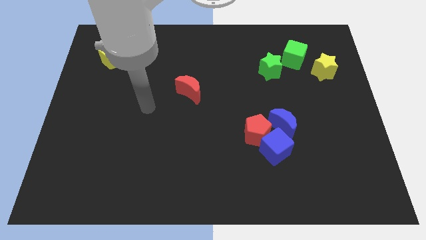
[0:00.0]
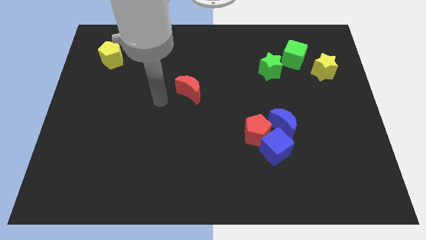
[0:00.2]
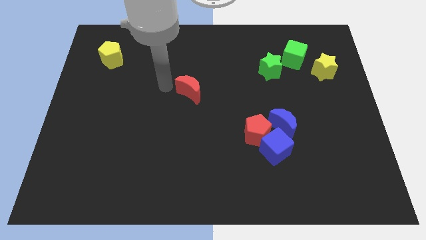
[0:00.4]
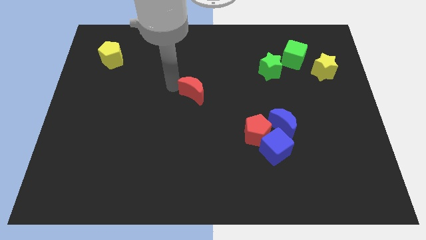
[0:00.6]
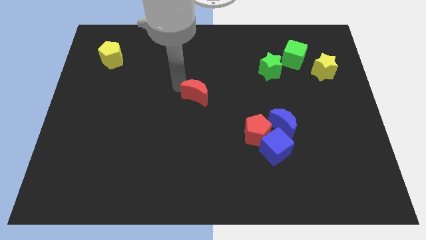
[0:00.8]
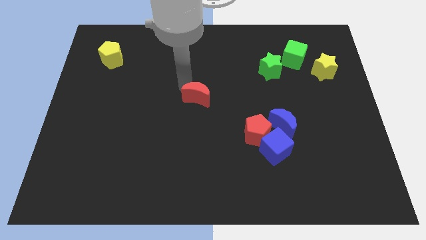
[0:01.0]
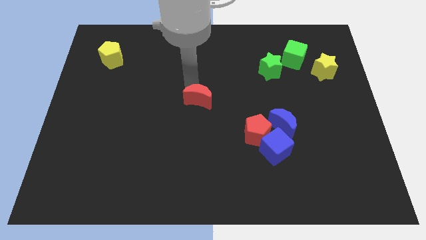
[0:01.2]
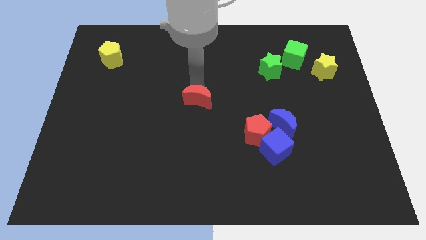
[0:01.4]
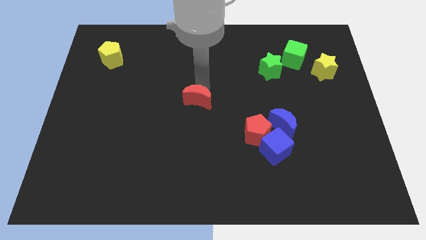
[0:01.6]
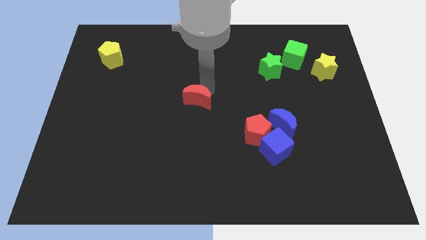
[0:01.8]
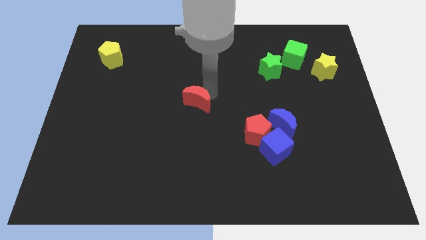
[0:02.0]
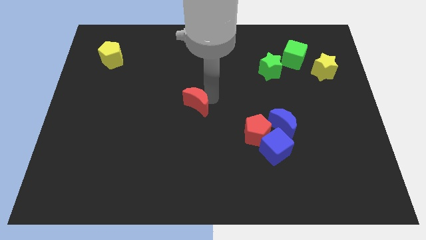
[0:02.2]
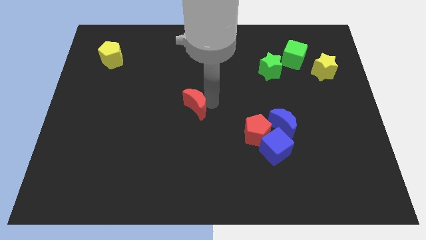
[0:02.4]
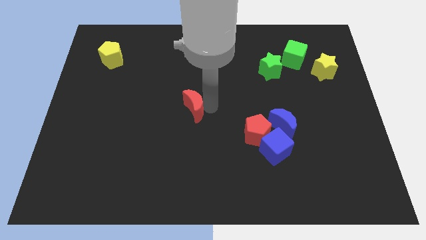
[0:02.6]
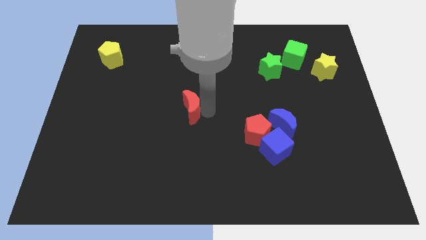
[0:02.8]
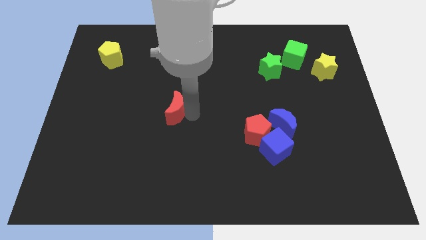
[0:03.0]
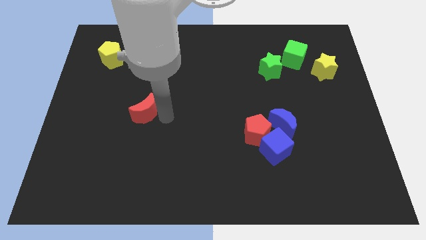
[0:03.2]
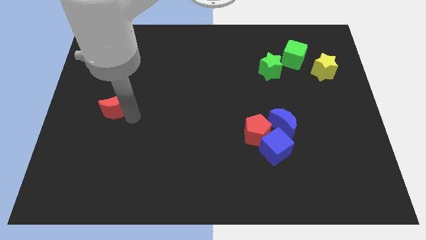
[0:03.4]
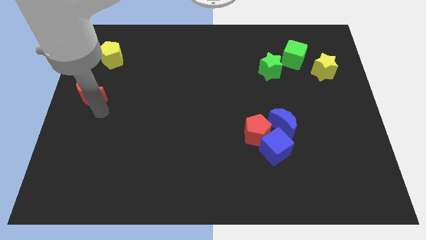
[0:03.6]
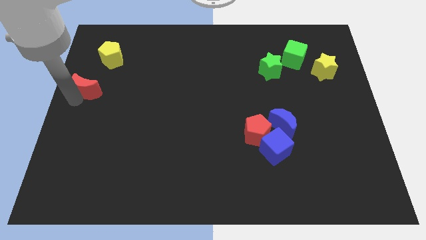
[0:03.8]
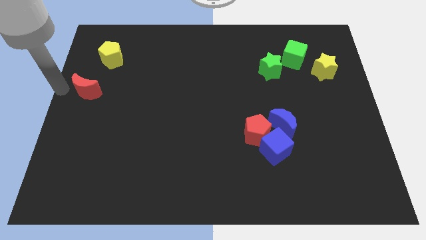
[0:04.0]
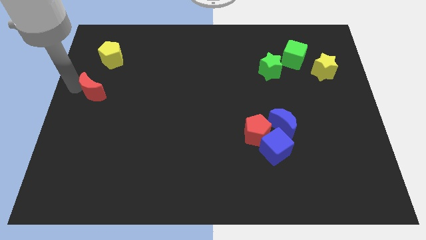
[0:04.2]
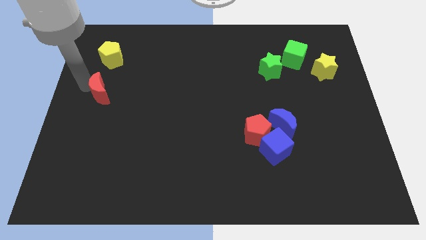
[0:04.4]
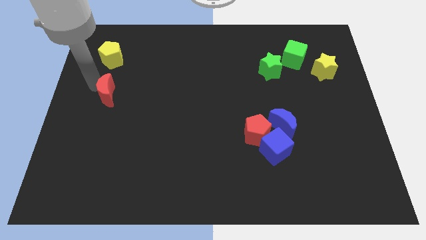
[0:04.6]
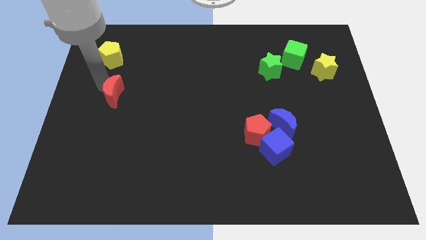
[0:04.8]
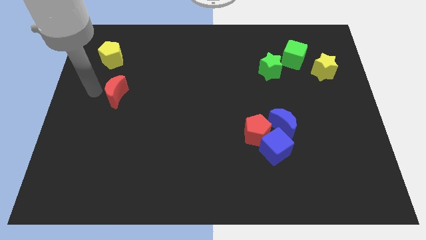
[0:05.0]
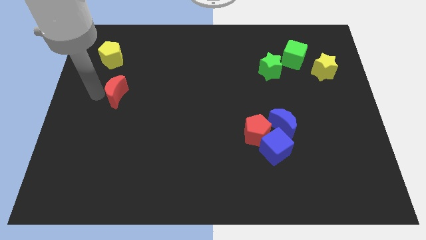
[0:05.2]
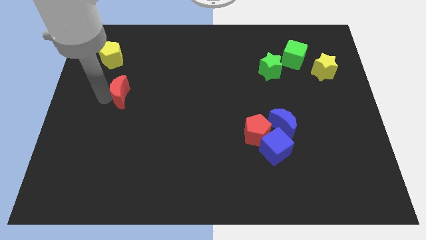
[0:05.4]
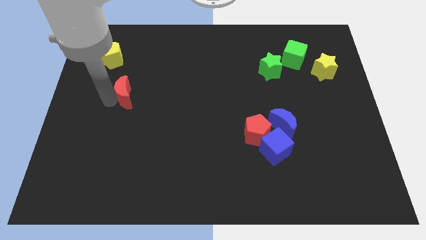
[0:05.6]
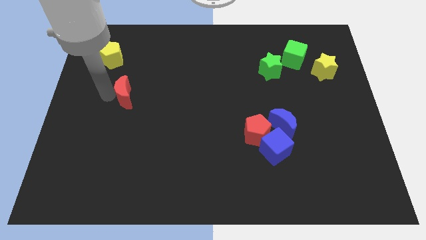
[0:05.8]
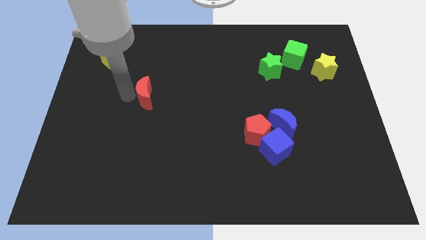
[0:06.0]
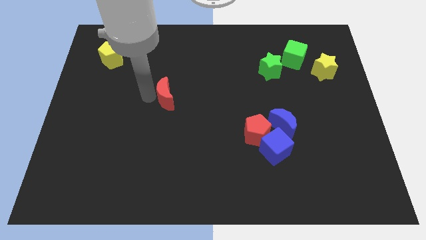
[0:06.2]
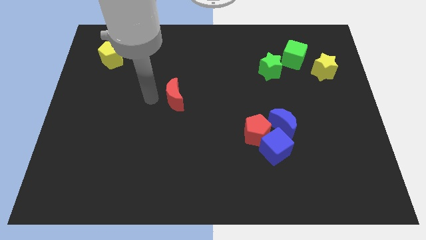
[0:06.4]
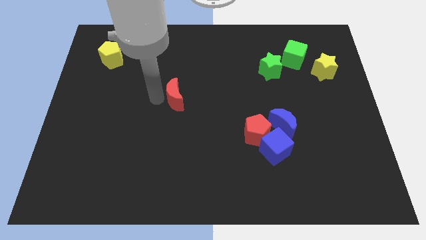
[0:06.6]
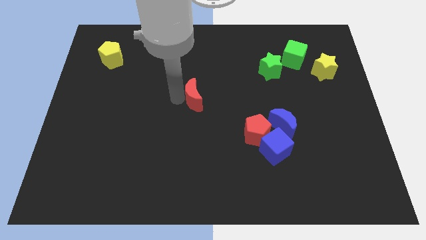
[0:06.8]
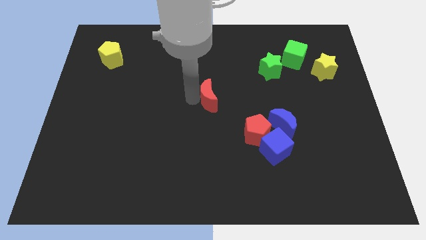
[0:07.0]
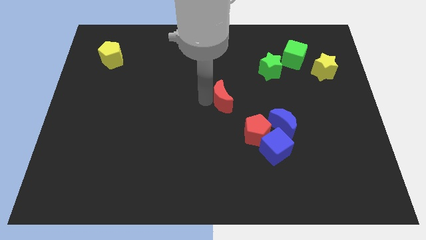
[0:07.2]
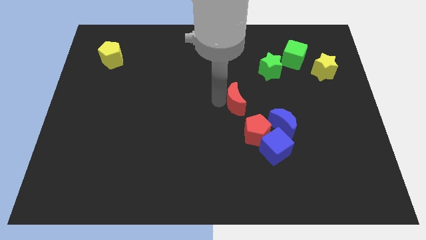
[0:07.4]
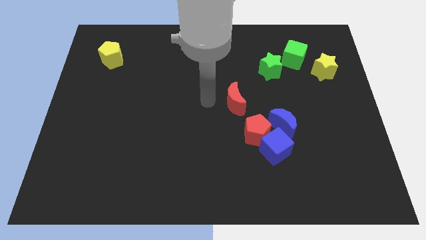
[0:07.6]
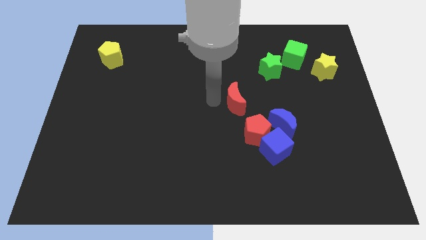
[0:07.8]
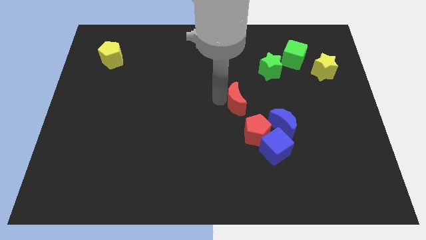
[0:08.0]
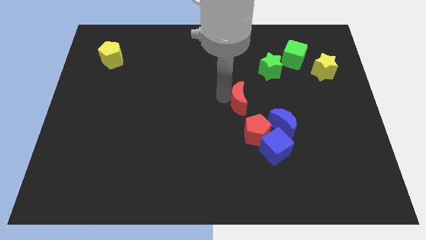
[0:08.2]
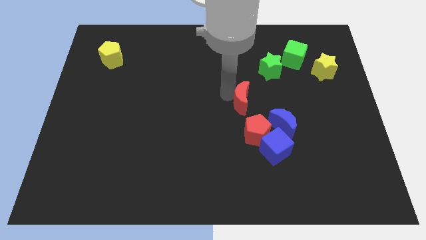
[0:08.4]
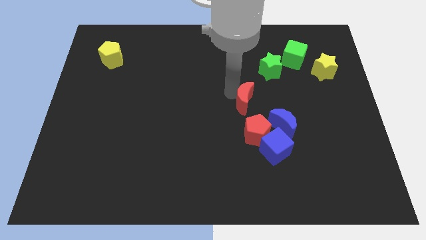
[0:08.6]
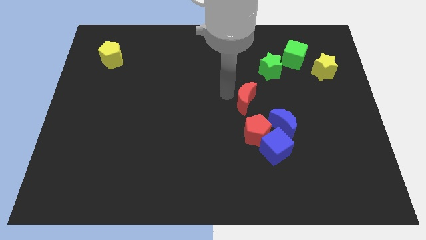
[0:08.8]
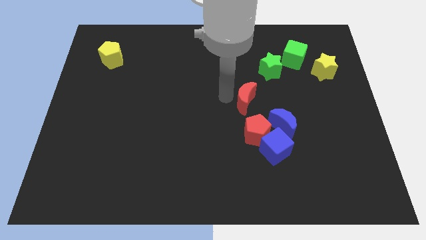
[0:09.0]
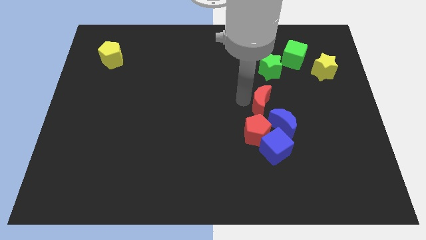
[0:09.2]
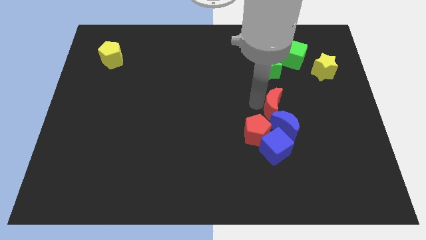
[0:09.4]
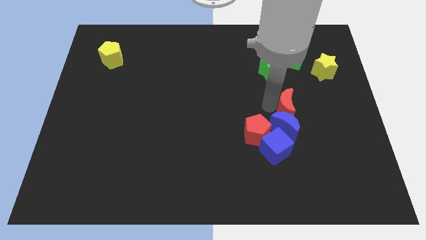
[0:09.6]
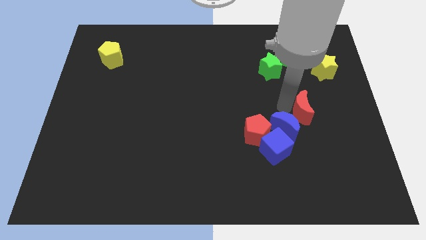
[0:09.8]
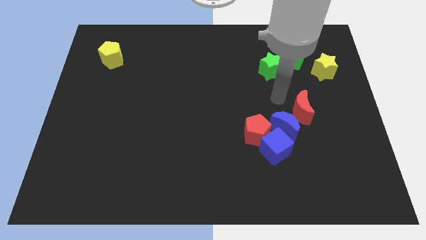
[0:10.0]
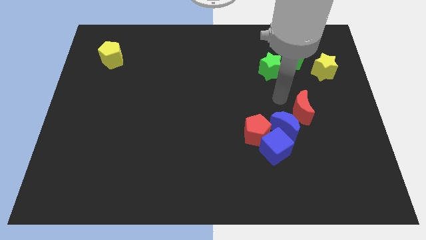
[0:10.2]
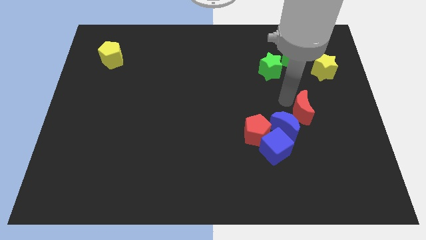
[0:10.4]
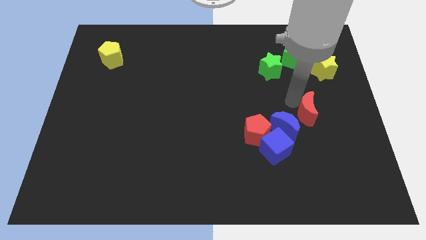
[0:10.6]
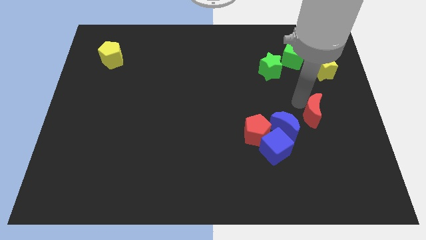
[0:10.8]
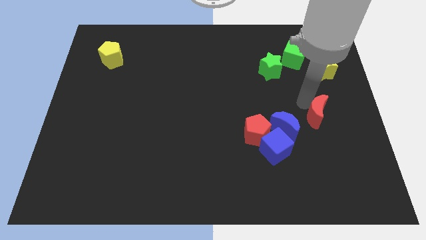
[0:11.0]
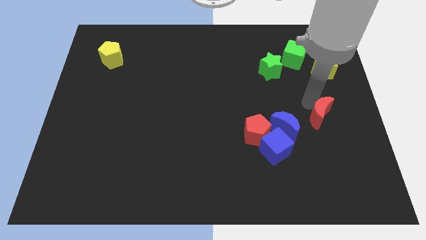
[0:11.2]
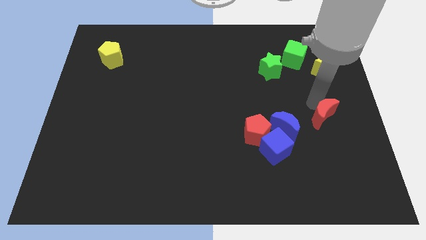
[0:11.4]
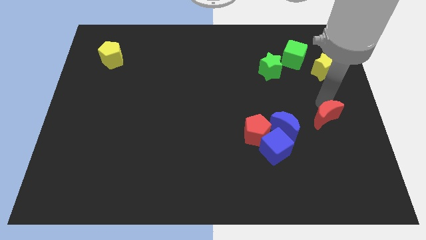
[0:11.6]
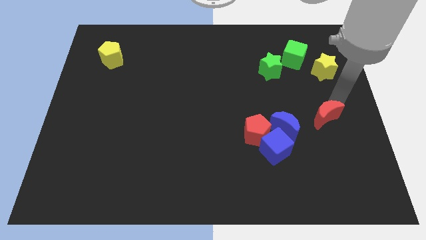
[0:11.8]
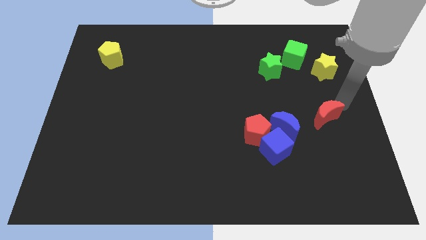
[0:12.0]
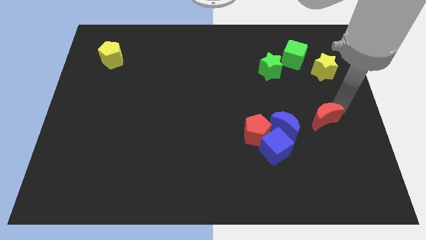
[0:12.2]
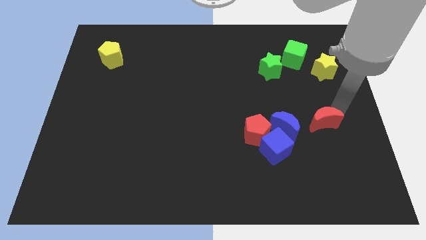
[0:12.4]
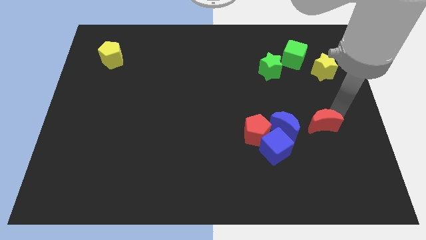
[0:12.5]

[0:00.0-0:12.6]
slide the red moon just right of the red pentagon
